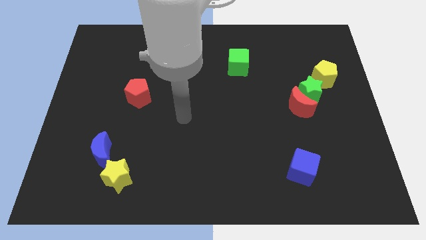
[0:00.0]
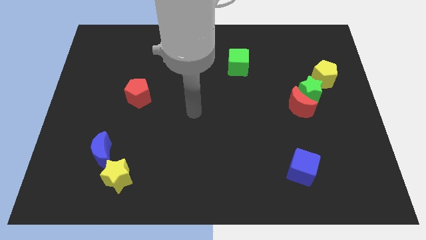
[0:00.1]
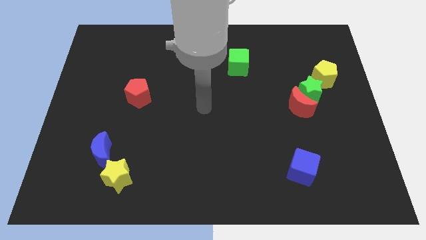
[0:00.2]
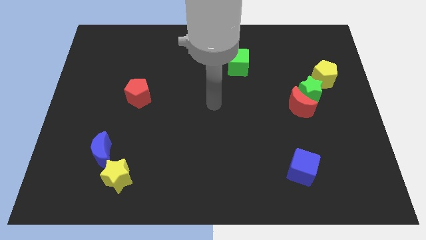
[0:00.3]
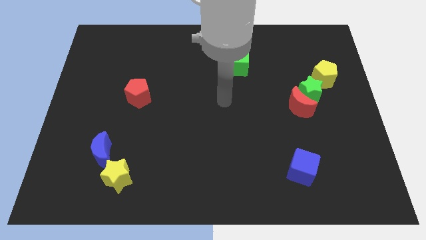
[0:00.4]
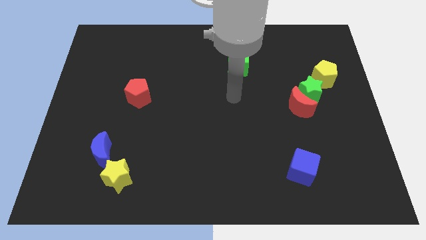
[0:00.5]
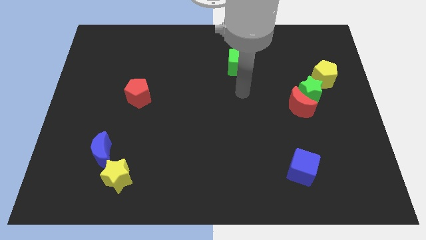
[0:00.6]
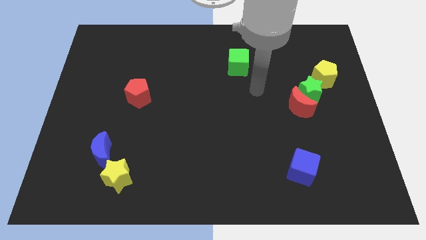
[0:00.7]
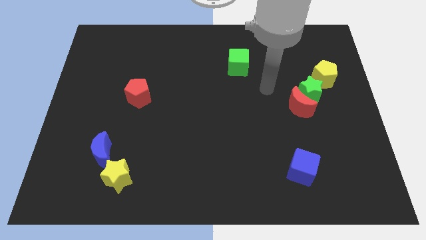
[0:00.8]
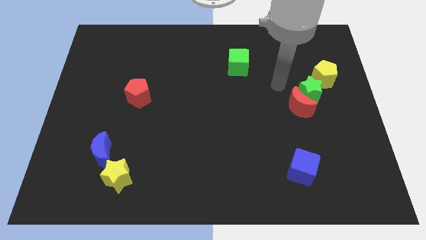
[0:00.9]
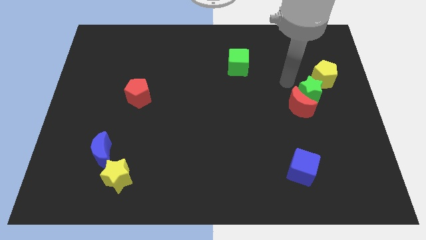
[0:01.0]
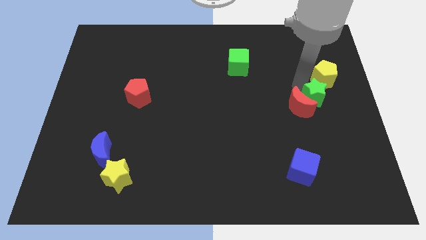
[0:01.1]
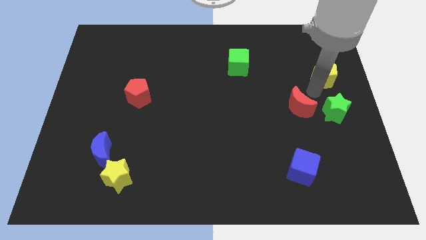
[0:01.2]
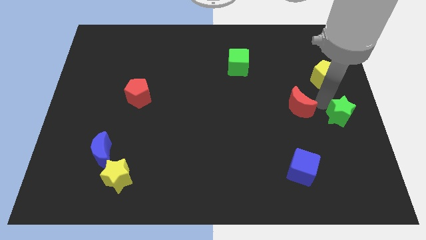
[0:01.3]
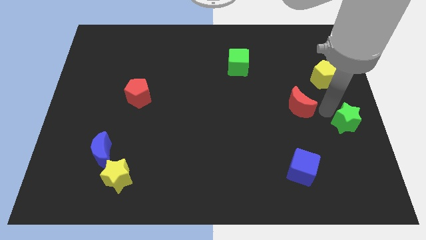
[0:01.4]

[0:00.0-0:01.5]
move the red moon away from the green star

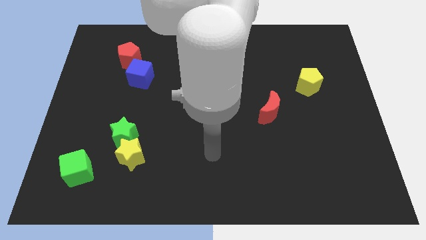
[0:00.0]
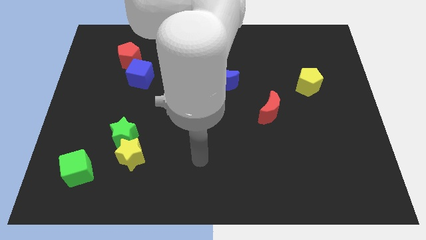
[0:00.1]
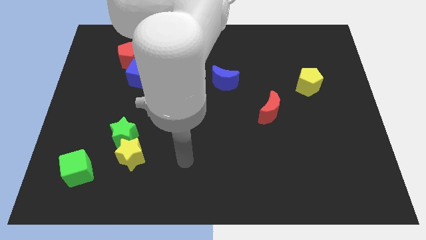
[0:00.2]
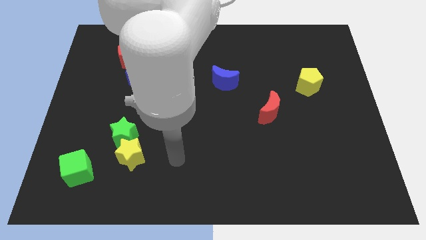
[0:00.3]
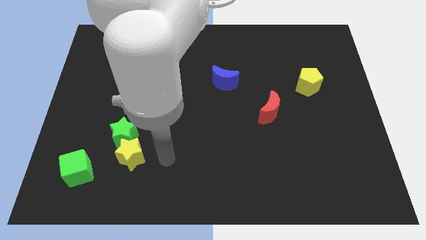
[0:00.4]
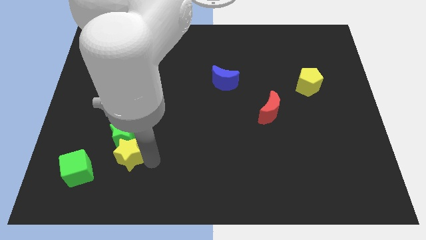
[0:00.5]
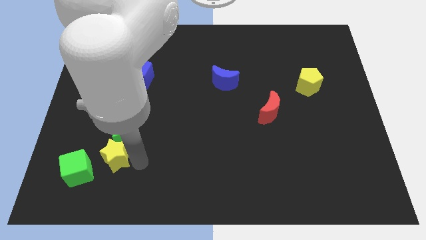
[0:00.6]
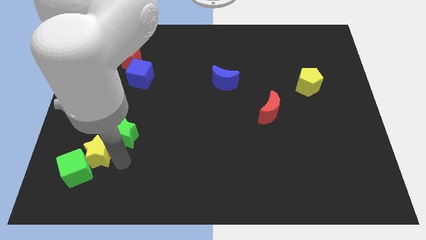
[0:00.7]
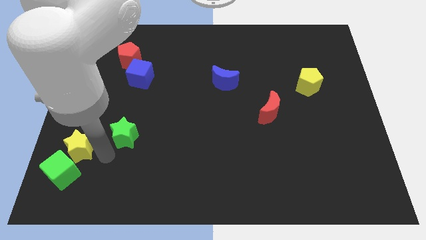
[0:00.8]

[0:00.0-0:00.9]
separate the green star from the yellow star

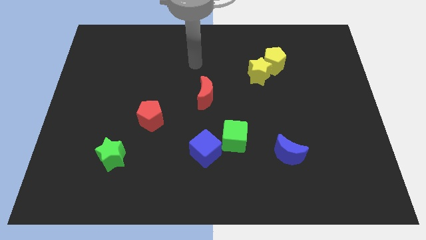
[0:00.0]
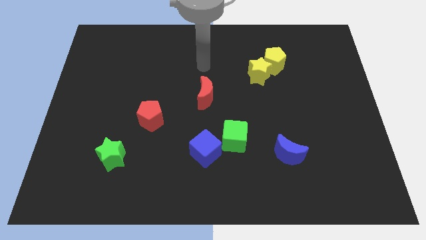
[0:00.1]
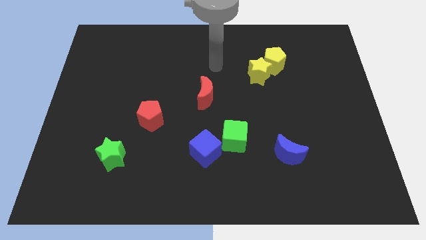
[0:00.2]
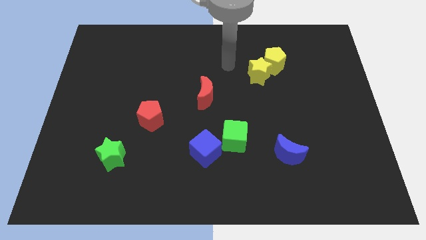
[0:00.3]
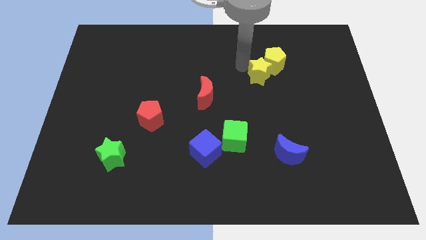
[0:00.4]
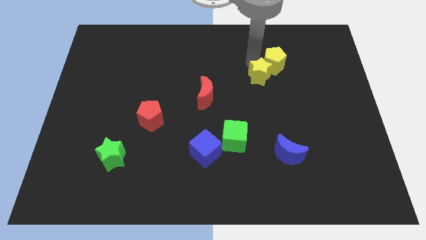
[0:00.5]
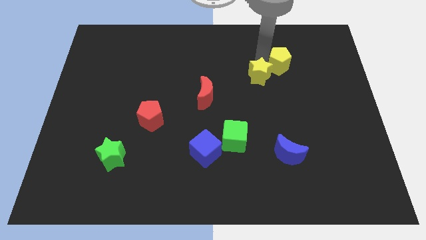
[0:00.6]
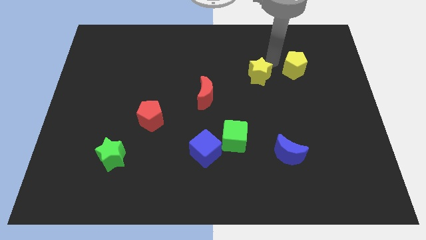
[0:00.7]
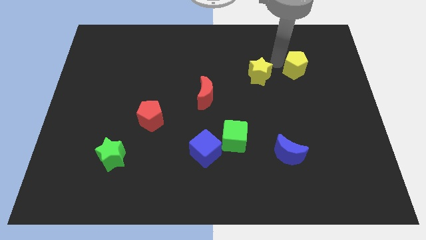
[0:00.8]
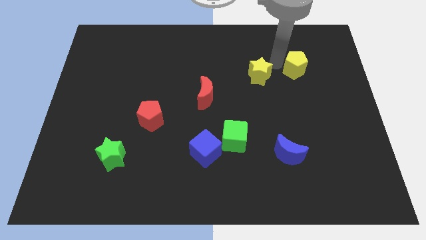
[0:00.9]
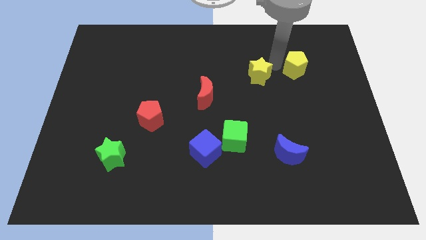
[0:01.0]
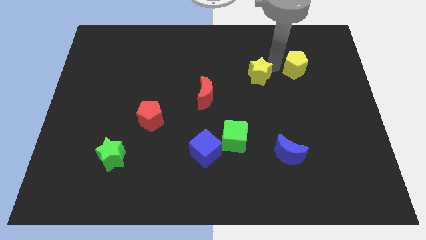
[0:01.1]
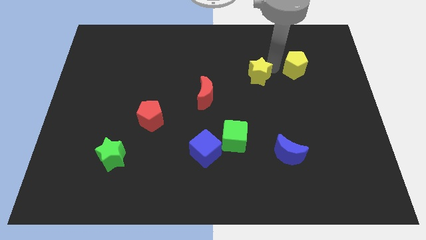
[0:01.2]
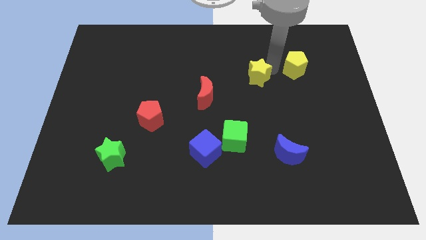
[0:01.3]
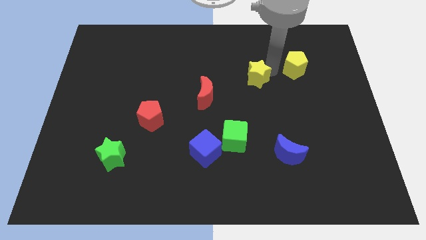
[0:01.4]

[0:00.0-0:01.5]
move the yellow star away from the yellow pentagon

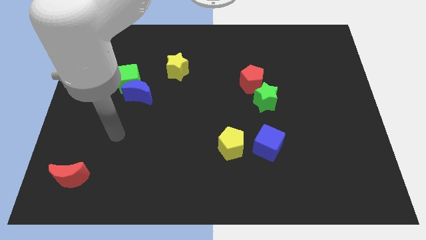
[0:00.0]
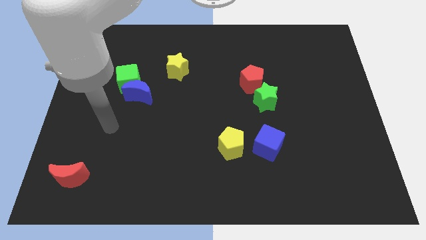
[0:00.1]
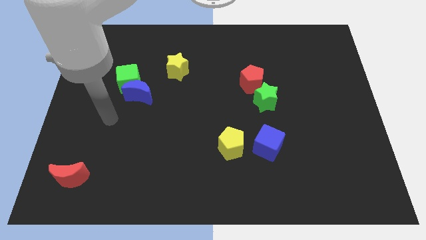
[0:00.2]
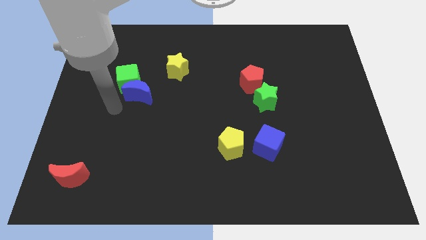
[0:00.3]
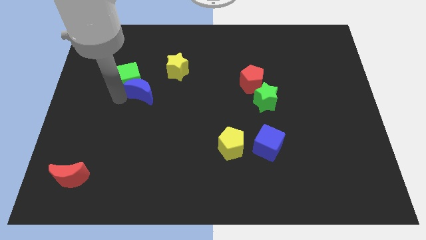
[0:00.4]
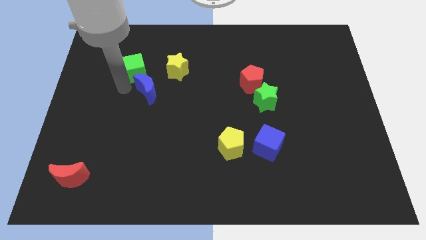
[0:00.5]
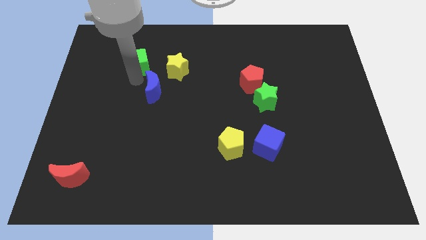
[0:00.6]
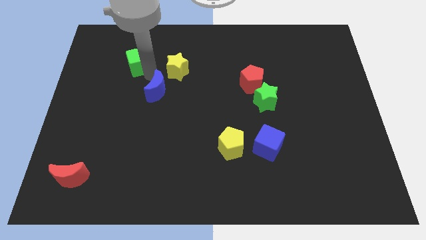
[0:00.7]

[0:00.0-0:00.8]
move the blue moon away from the green cube

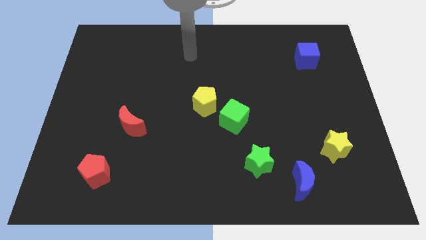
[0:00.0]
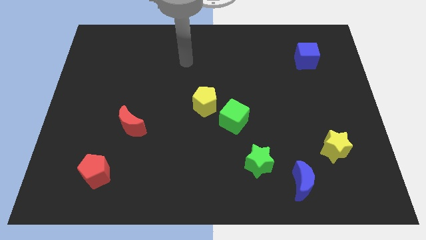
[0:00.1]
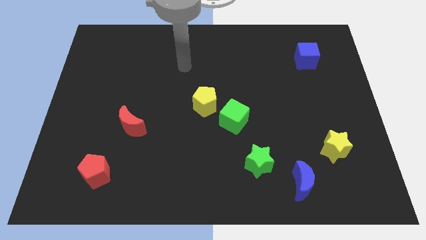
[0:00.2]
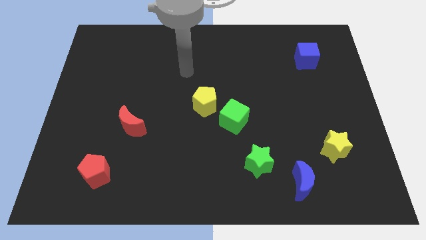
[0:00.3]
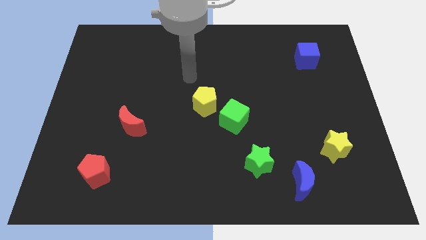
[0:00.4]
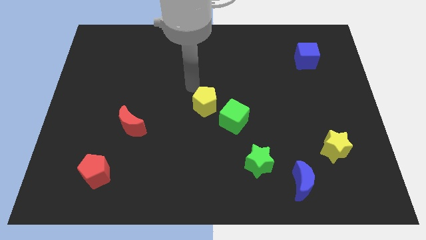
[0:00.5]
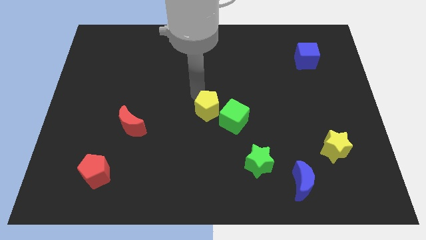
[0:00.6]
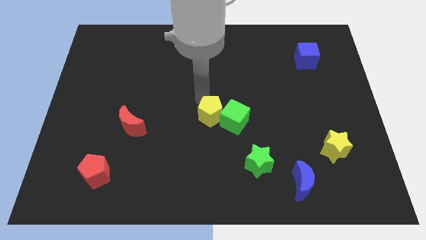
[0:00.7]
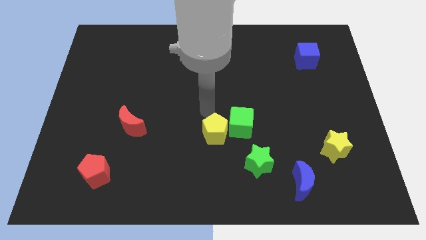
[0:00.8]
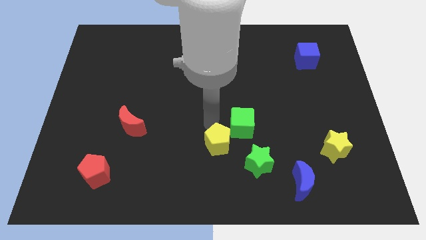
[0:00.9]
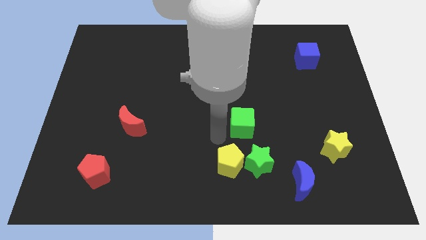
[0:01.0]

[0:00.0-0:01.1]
pull the green cube apart from the yellow pentagon

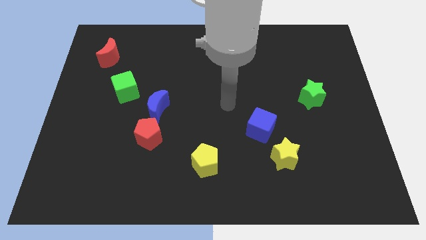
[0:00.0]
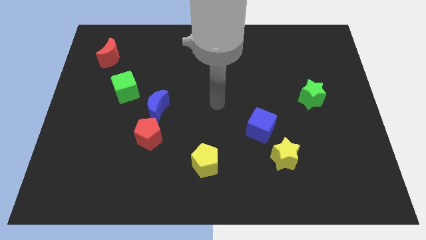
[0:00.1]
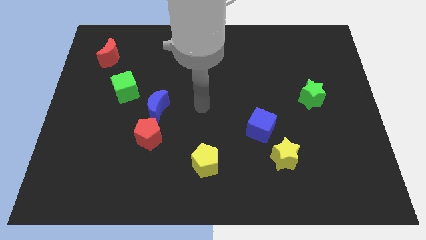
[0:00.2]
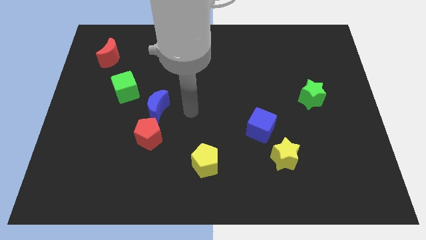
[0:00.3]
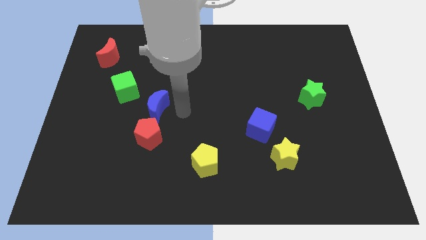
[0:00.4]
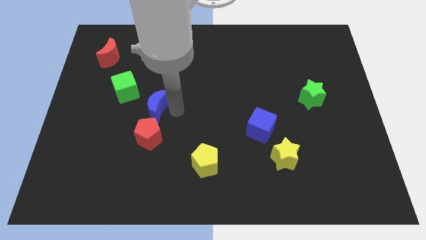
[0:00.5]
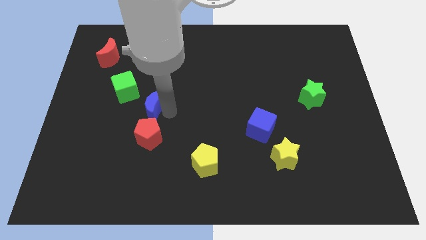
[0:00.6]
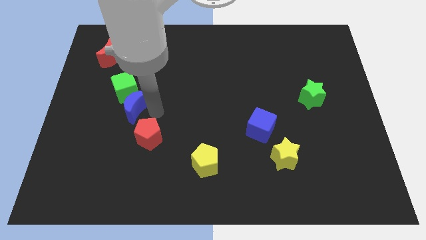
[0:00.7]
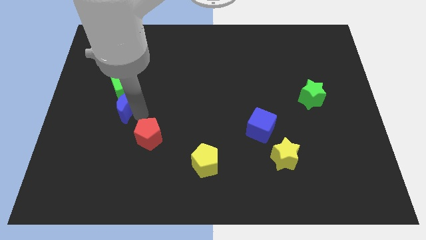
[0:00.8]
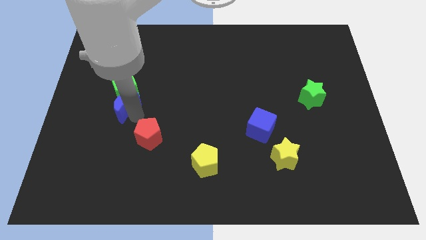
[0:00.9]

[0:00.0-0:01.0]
move the red pentagon away from the blue moon

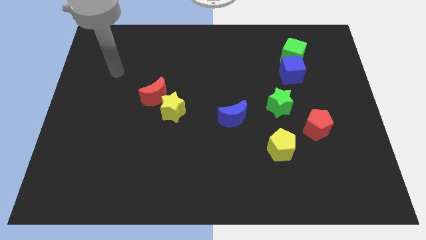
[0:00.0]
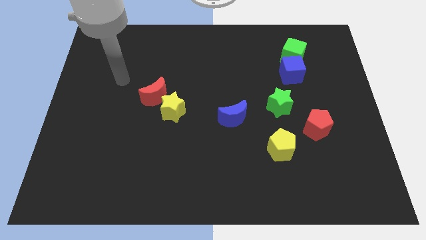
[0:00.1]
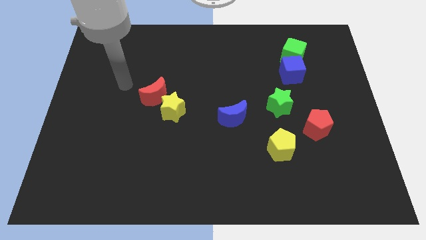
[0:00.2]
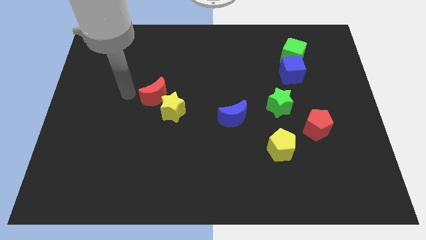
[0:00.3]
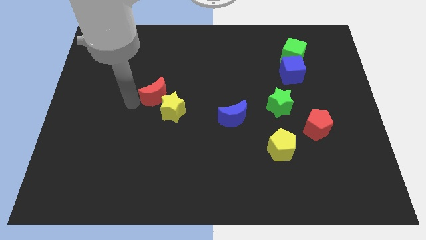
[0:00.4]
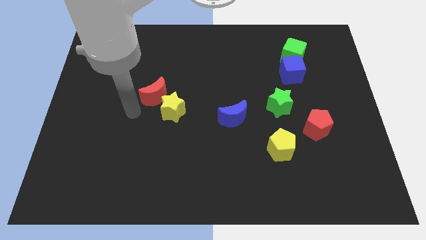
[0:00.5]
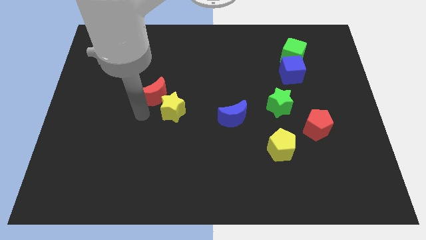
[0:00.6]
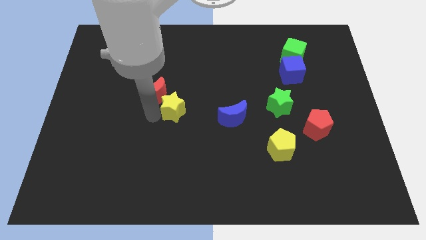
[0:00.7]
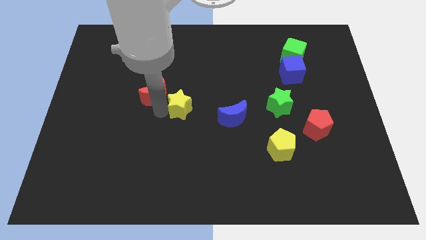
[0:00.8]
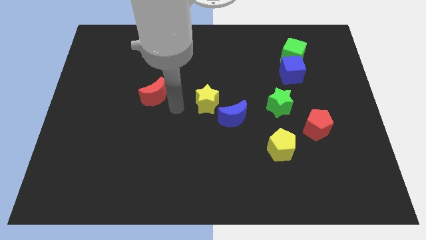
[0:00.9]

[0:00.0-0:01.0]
separate the red moon from the yellow star

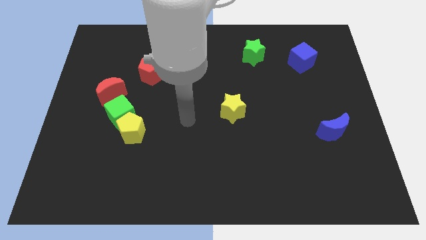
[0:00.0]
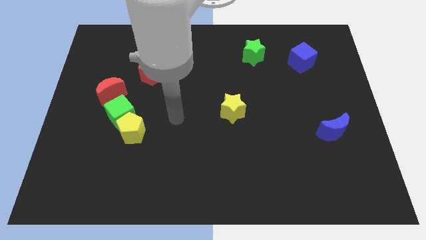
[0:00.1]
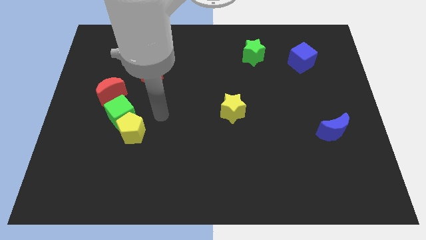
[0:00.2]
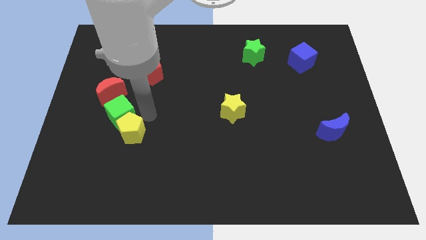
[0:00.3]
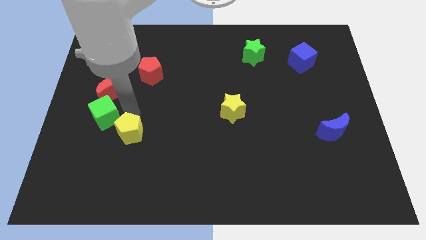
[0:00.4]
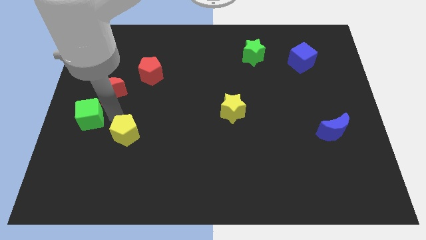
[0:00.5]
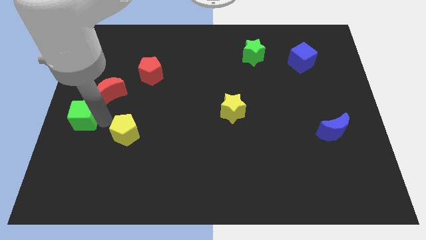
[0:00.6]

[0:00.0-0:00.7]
move the yellow pentagon away from the green cube

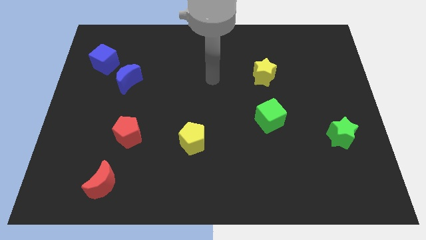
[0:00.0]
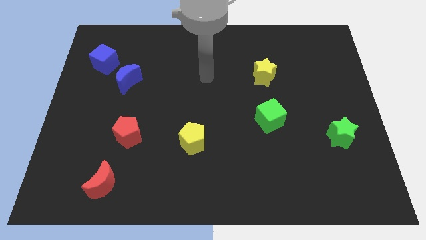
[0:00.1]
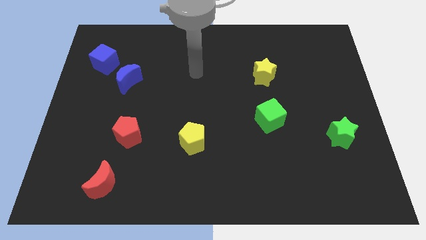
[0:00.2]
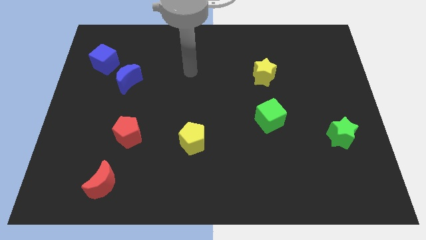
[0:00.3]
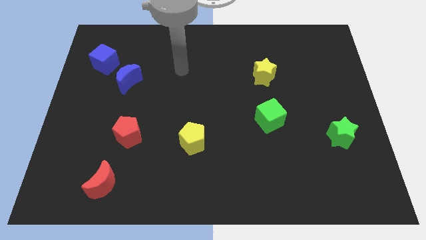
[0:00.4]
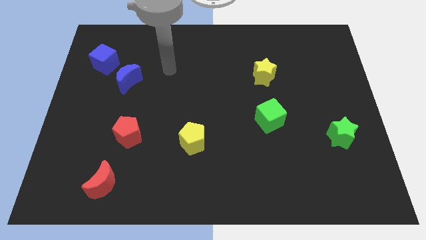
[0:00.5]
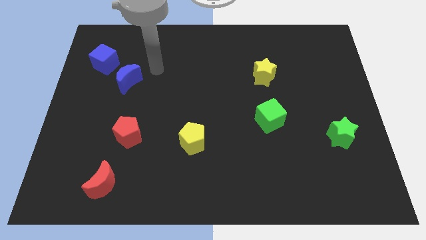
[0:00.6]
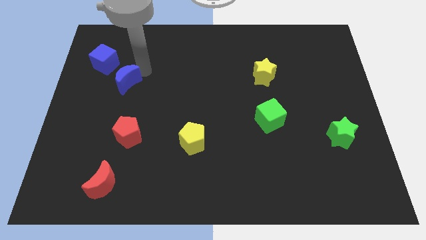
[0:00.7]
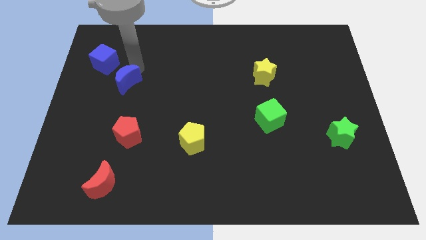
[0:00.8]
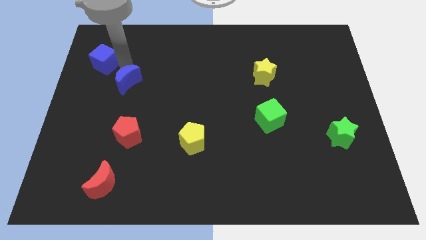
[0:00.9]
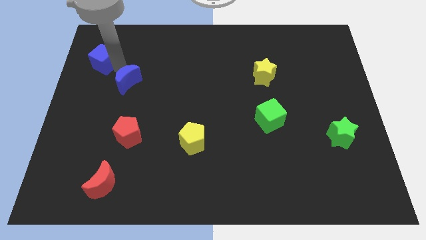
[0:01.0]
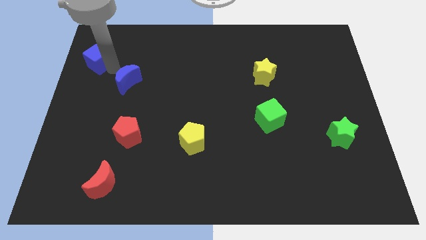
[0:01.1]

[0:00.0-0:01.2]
pull the blue moon apart from the blue cube
